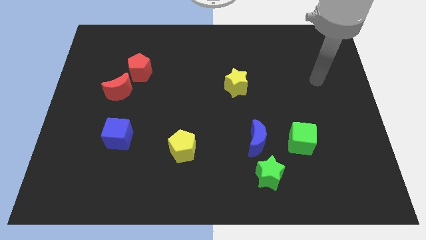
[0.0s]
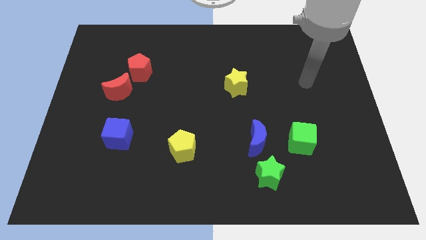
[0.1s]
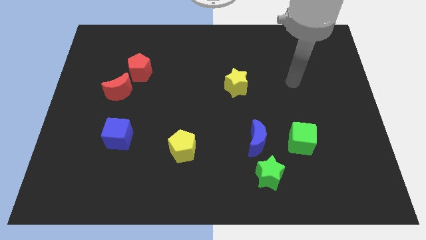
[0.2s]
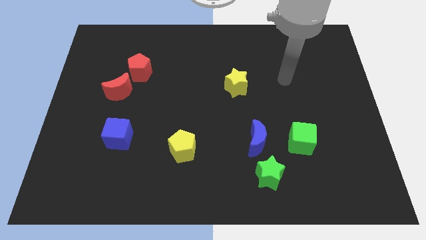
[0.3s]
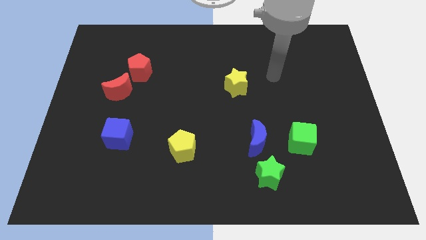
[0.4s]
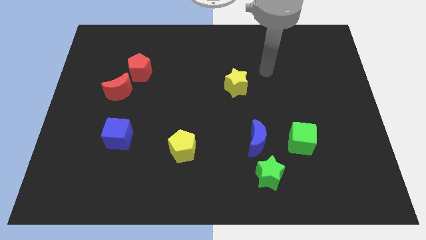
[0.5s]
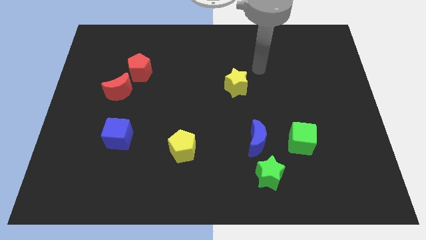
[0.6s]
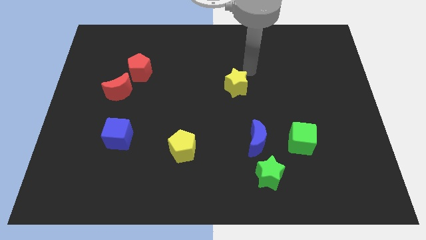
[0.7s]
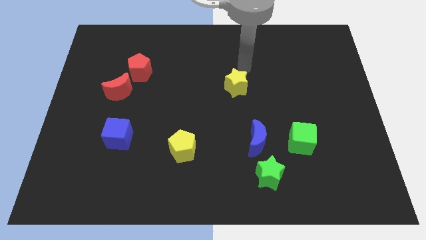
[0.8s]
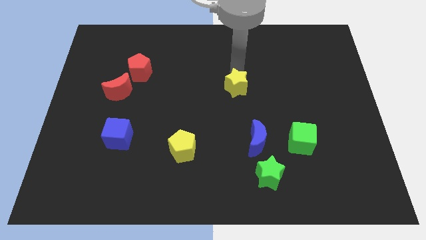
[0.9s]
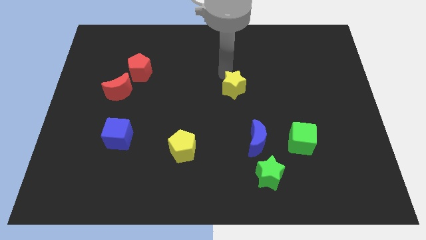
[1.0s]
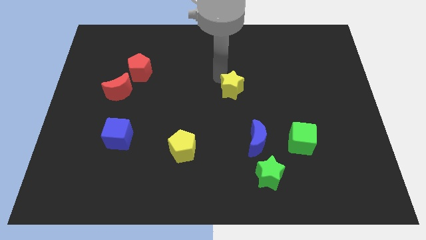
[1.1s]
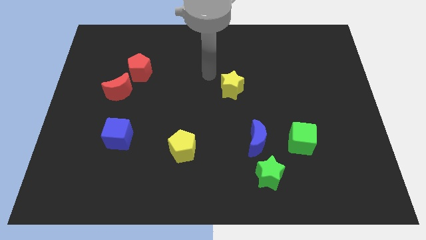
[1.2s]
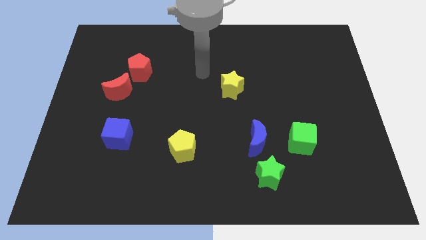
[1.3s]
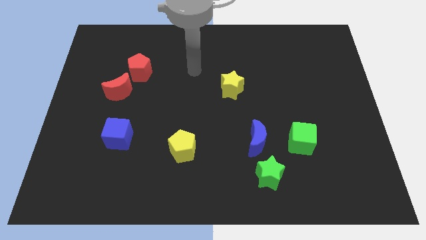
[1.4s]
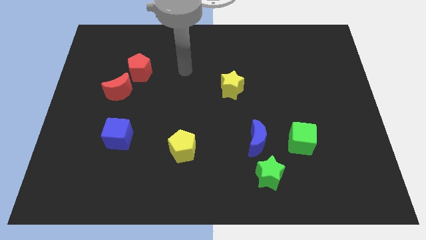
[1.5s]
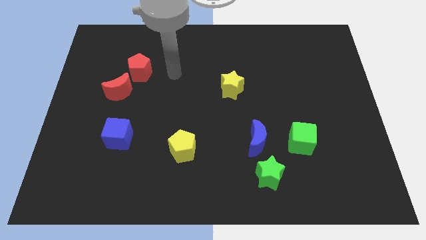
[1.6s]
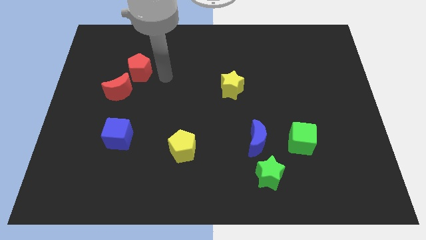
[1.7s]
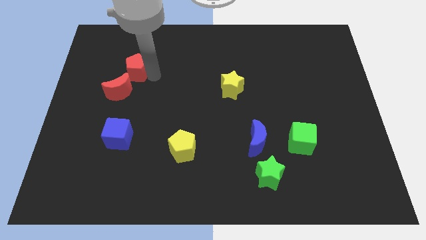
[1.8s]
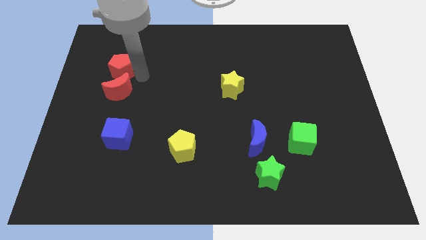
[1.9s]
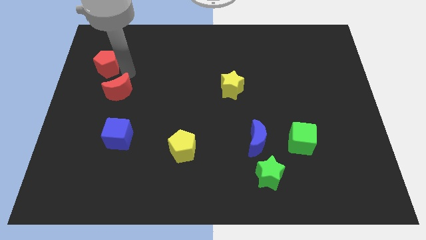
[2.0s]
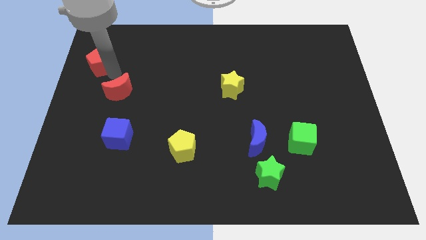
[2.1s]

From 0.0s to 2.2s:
separate the red moon from the red pentagon

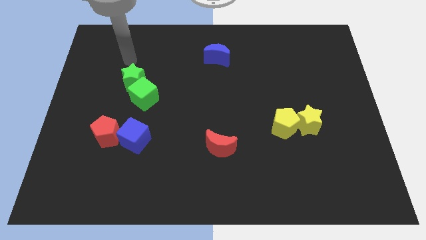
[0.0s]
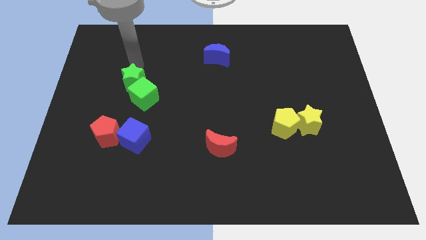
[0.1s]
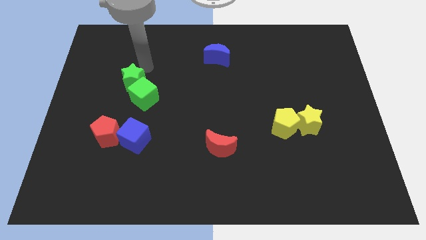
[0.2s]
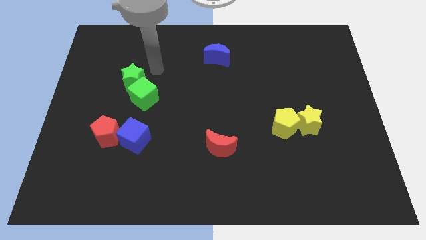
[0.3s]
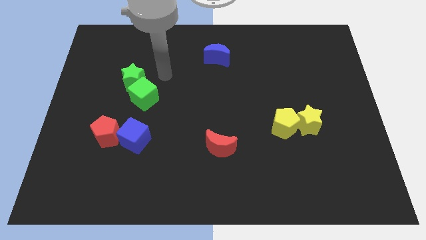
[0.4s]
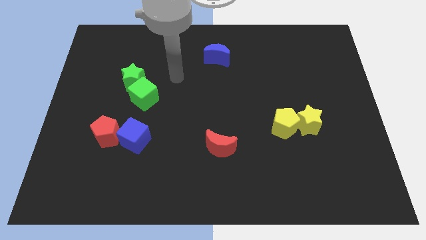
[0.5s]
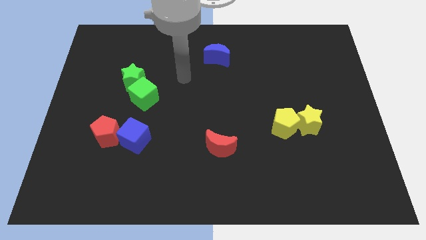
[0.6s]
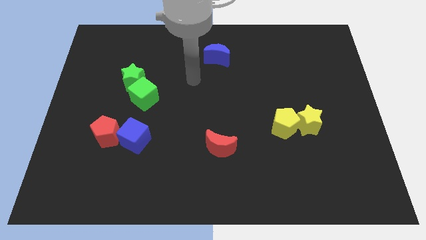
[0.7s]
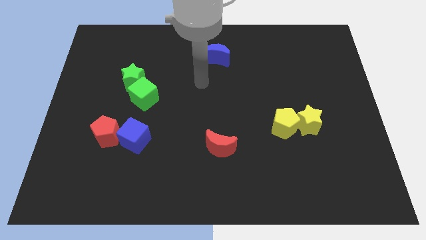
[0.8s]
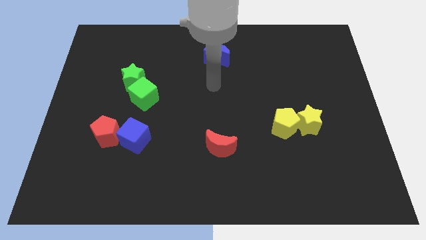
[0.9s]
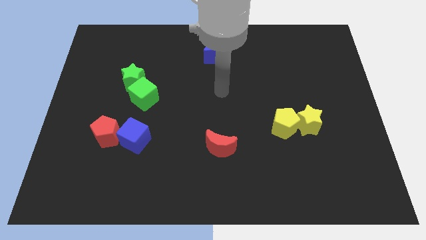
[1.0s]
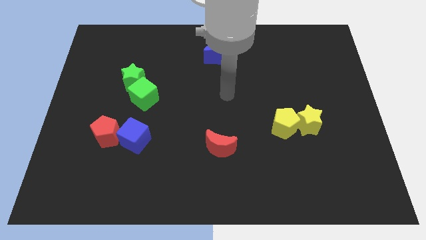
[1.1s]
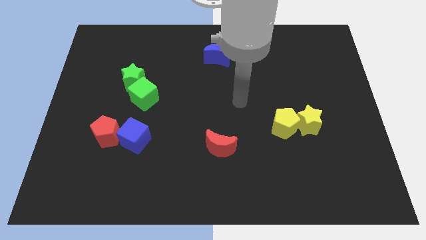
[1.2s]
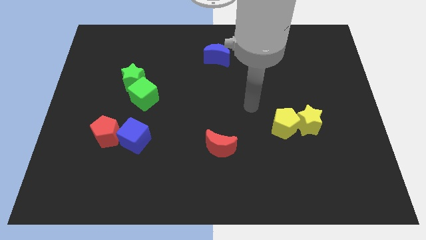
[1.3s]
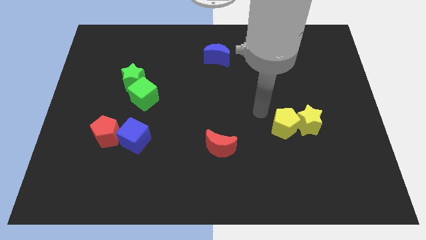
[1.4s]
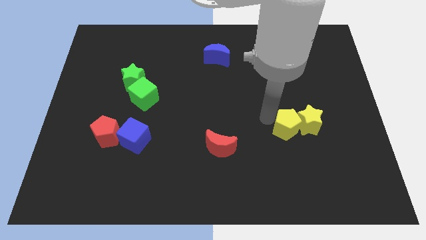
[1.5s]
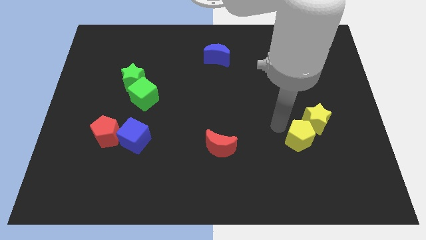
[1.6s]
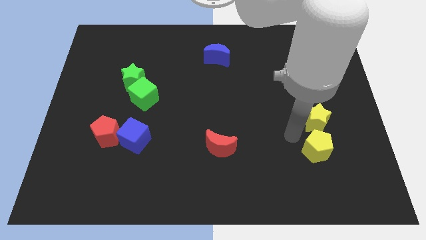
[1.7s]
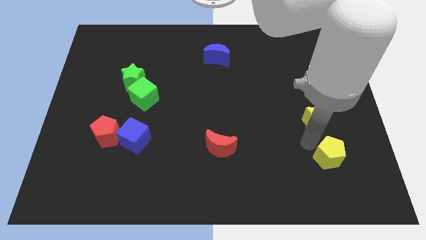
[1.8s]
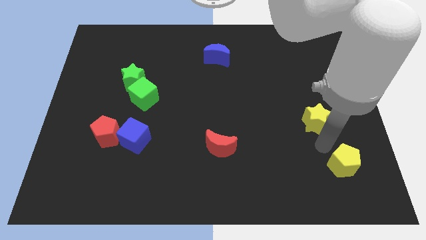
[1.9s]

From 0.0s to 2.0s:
move the yellow star away from the yellow pentagon

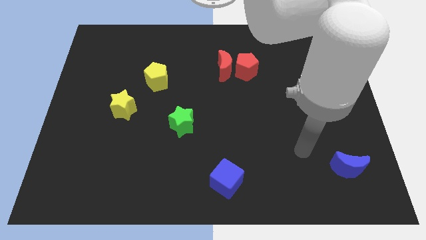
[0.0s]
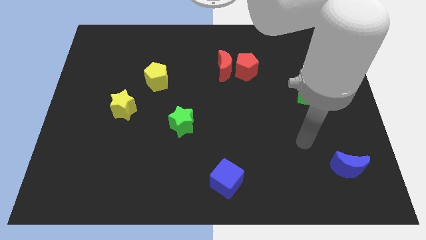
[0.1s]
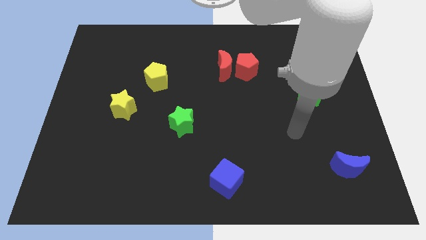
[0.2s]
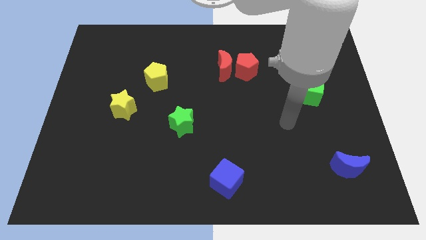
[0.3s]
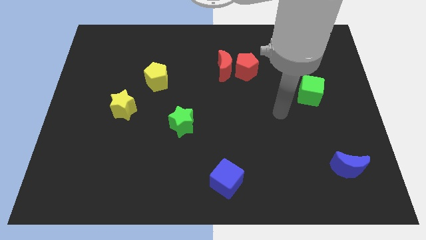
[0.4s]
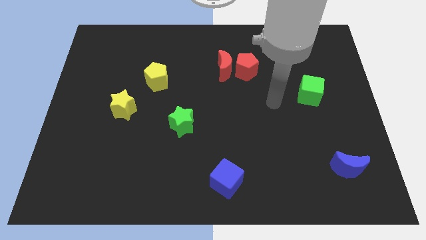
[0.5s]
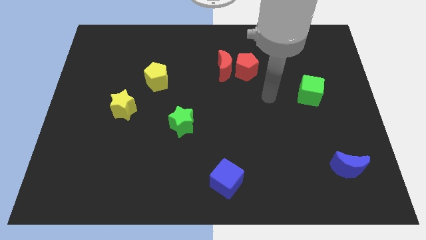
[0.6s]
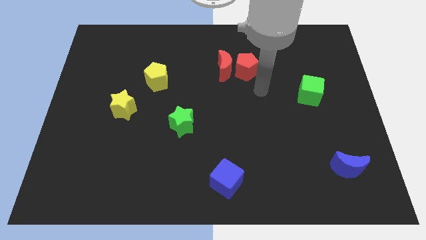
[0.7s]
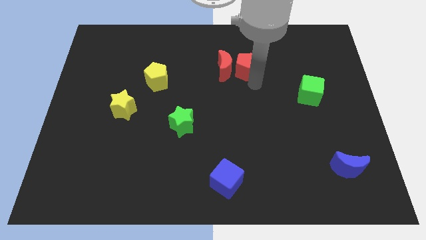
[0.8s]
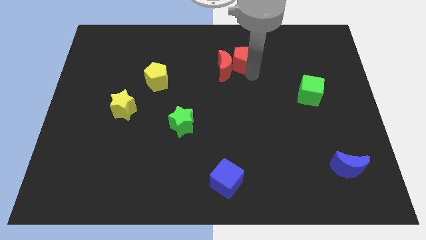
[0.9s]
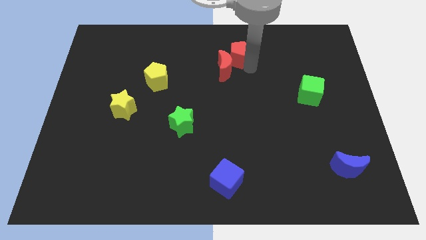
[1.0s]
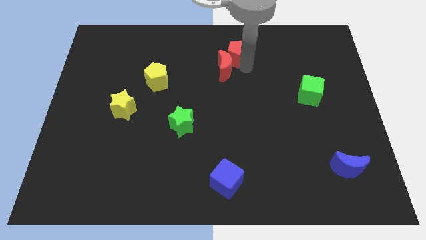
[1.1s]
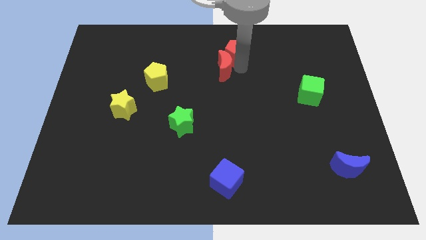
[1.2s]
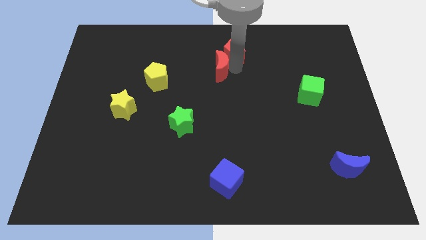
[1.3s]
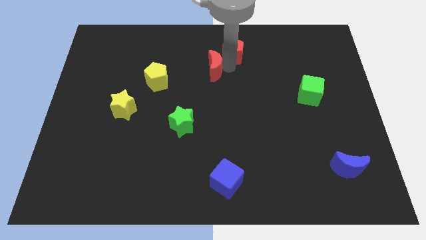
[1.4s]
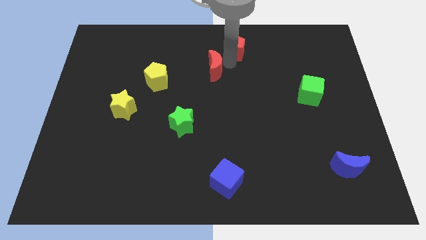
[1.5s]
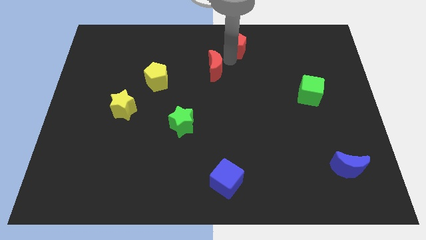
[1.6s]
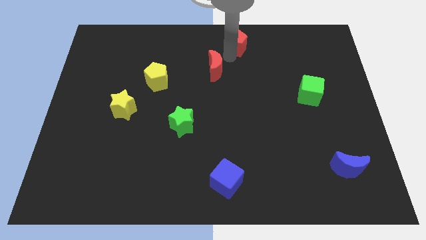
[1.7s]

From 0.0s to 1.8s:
pull the red moon apart from the red pentagon

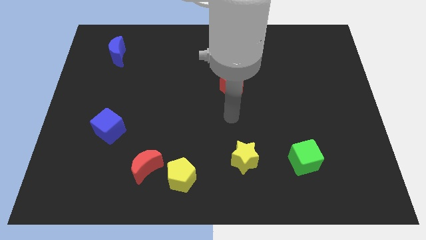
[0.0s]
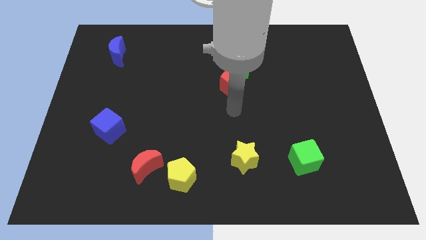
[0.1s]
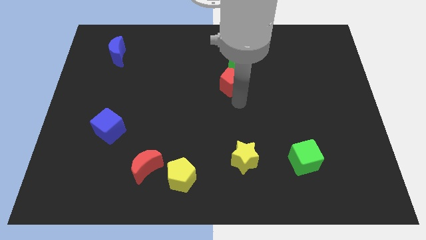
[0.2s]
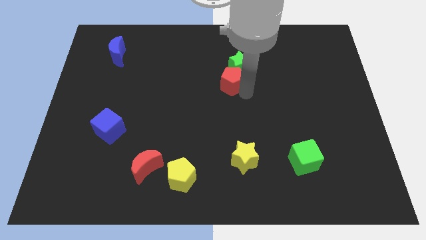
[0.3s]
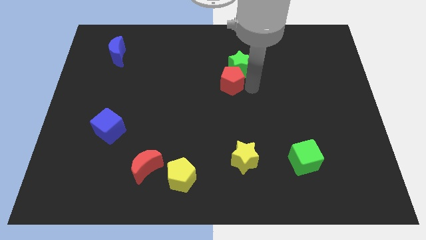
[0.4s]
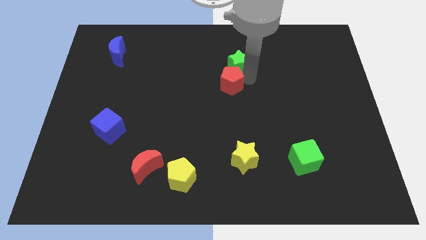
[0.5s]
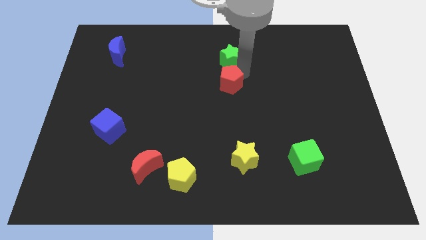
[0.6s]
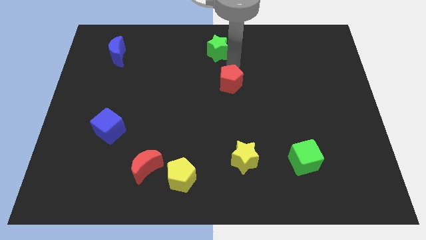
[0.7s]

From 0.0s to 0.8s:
move the red pentagon away from the green star

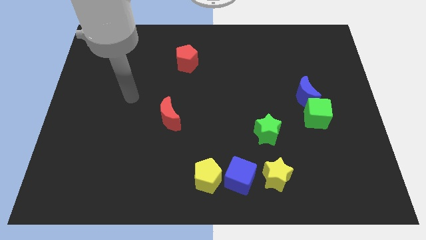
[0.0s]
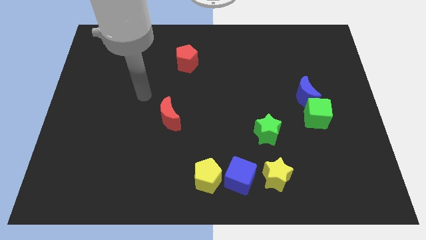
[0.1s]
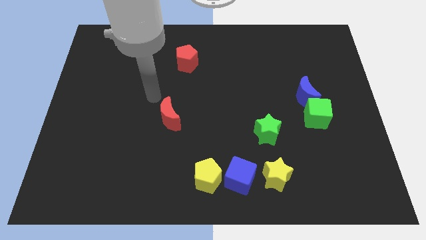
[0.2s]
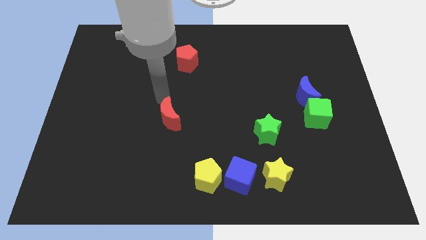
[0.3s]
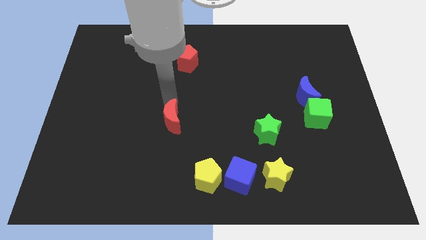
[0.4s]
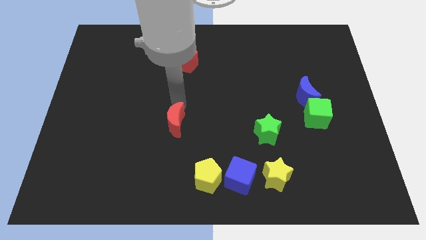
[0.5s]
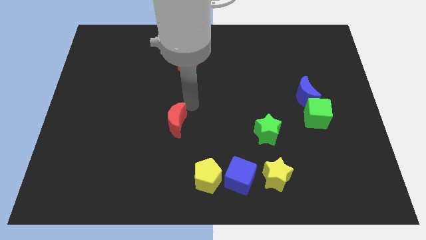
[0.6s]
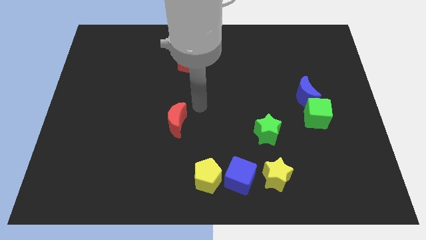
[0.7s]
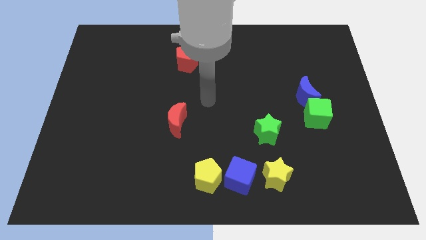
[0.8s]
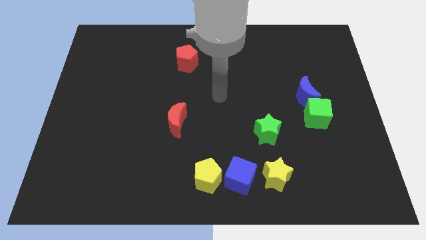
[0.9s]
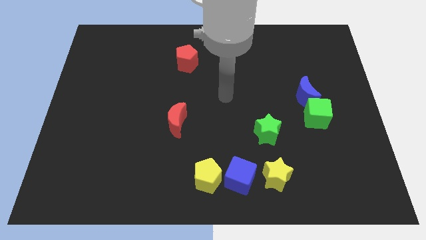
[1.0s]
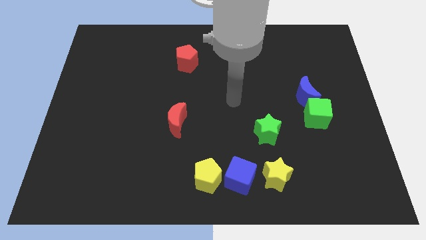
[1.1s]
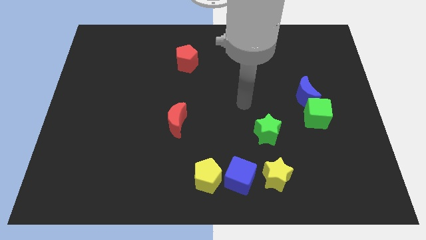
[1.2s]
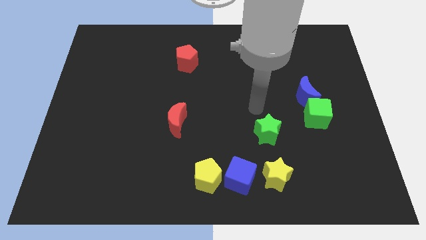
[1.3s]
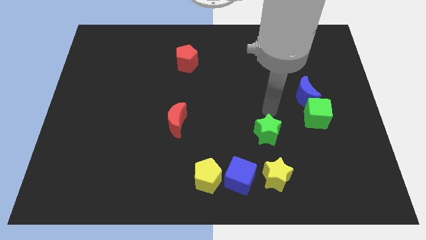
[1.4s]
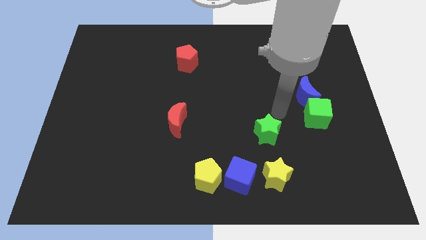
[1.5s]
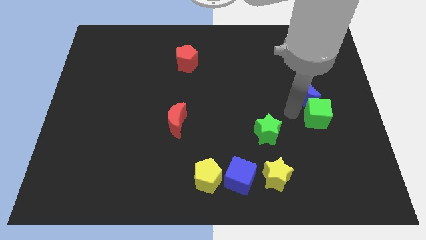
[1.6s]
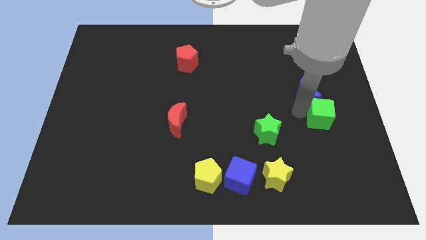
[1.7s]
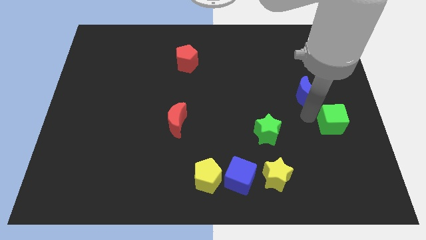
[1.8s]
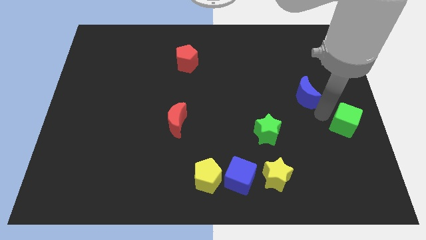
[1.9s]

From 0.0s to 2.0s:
move the blue moon away from the green cube

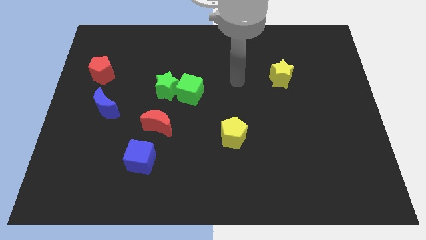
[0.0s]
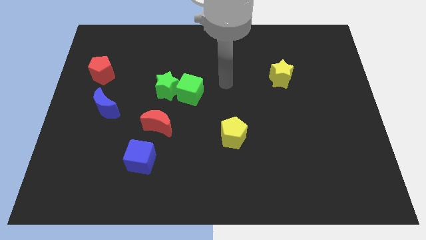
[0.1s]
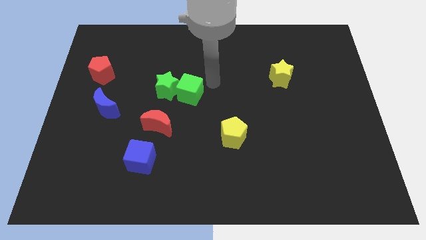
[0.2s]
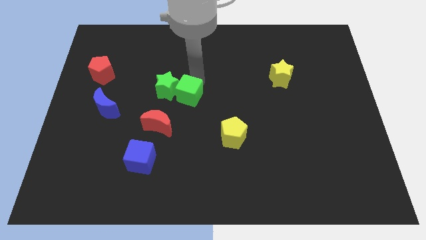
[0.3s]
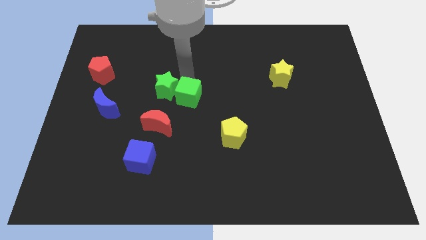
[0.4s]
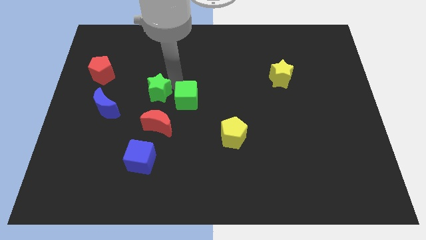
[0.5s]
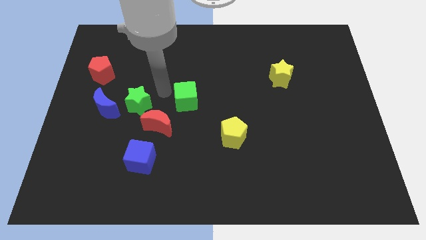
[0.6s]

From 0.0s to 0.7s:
separate the green cube from the green star
